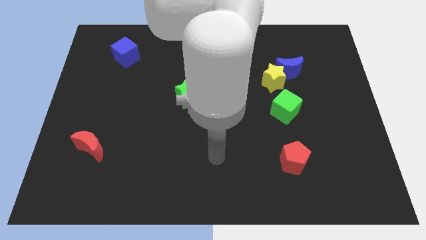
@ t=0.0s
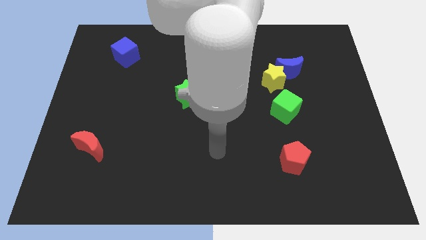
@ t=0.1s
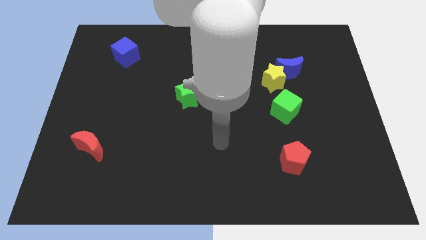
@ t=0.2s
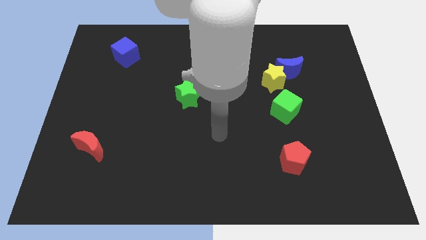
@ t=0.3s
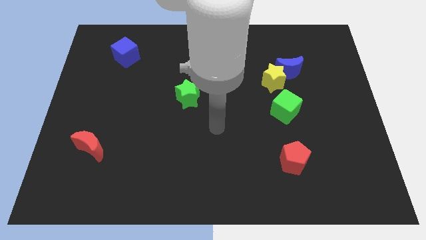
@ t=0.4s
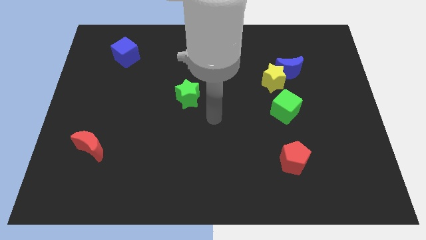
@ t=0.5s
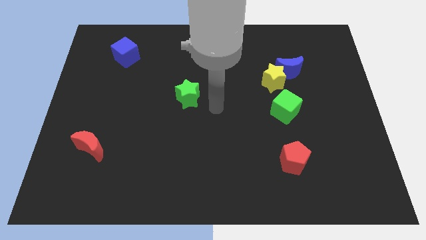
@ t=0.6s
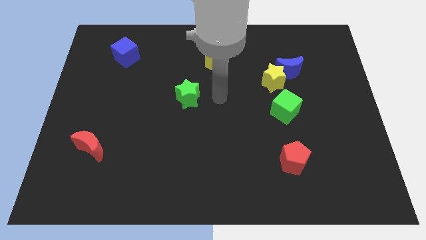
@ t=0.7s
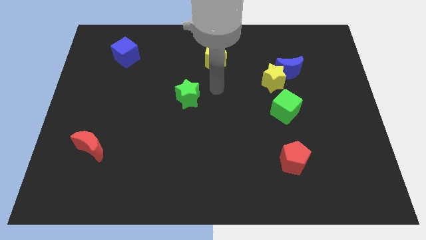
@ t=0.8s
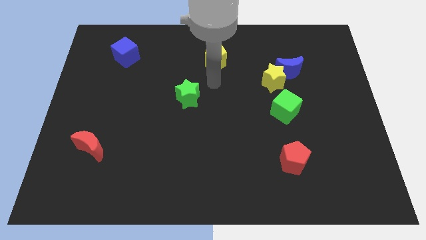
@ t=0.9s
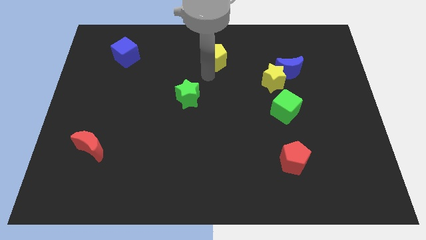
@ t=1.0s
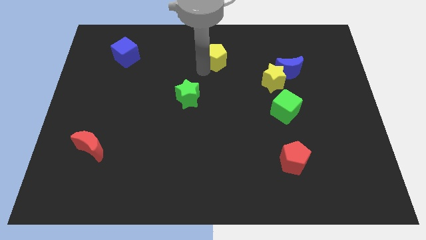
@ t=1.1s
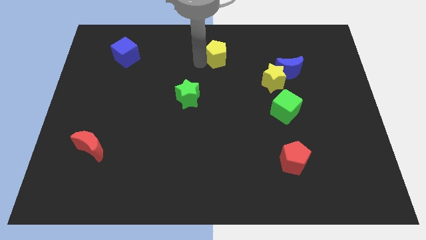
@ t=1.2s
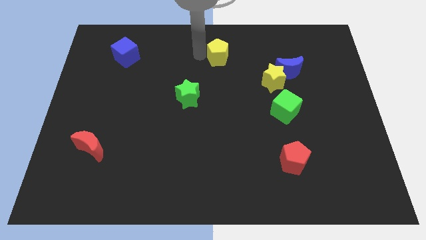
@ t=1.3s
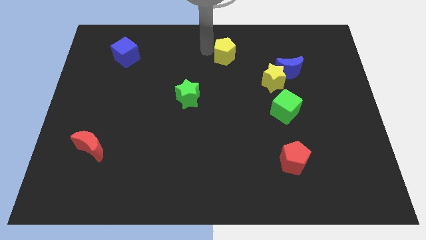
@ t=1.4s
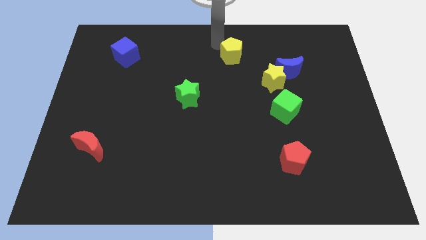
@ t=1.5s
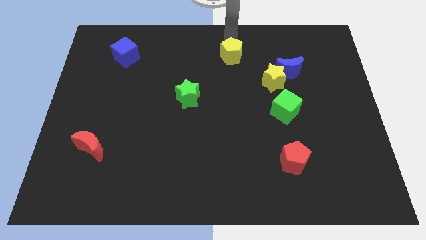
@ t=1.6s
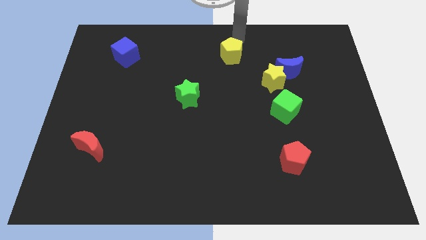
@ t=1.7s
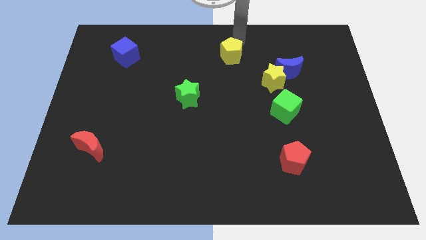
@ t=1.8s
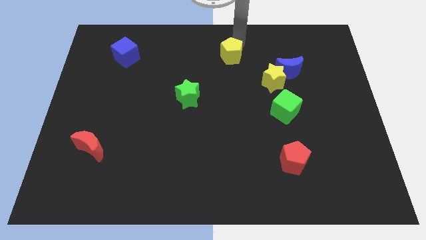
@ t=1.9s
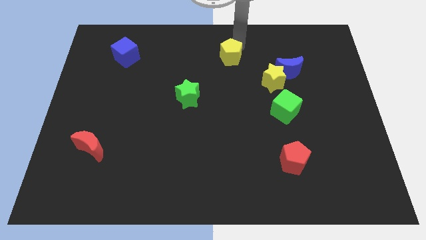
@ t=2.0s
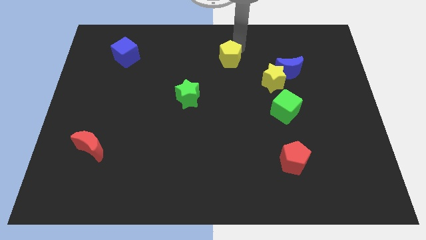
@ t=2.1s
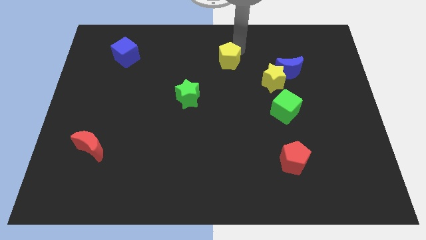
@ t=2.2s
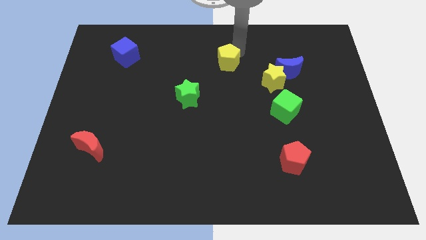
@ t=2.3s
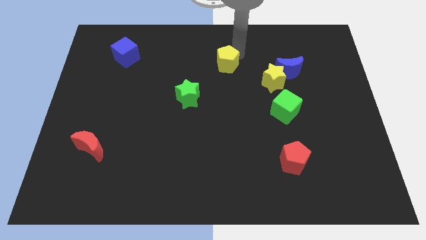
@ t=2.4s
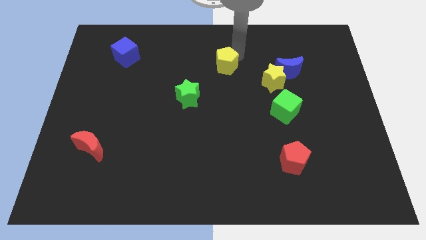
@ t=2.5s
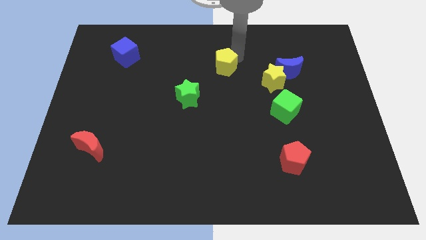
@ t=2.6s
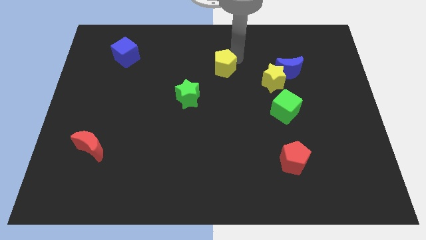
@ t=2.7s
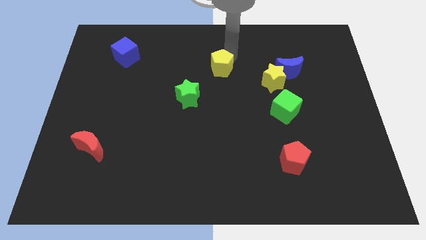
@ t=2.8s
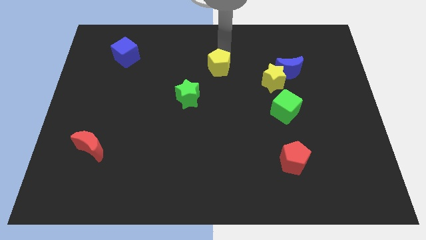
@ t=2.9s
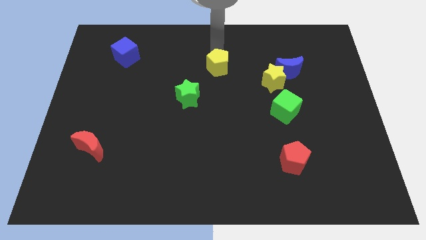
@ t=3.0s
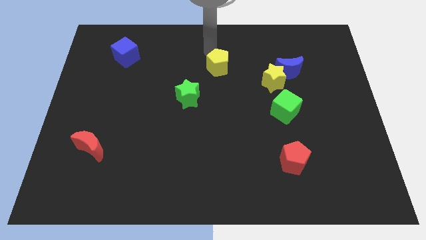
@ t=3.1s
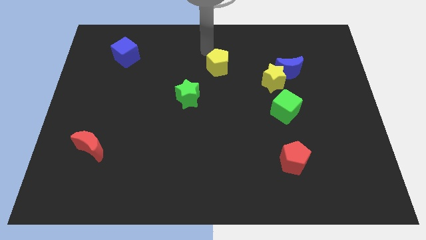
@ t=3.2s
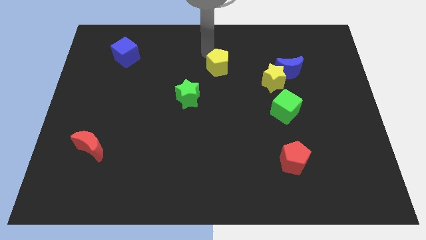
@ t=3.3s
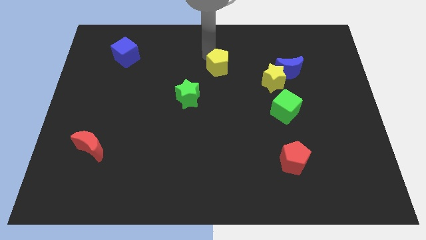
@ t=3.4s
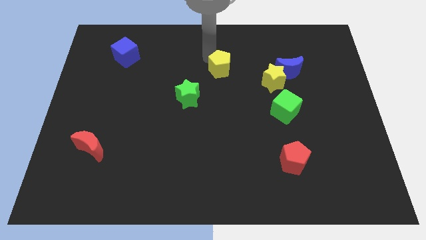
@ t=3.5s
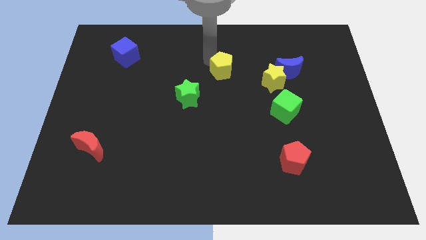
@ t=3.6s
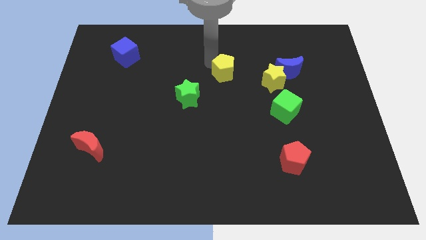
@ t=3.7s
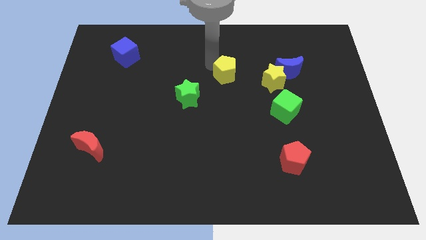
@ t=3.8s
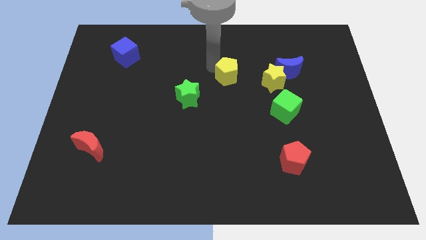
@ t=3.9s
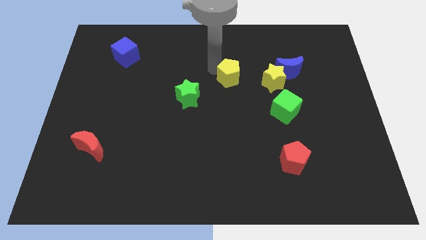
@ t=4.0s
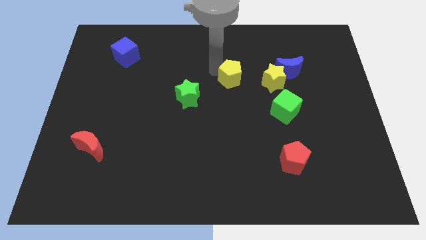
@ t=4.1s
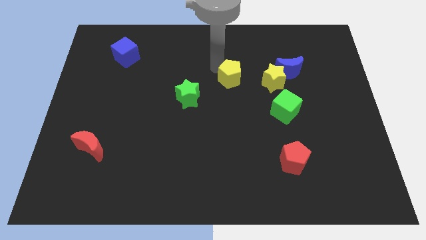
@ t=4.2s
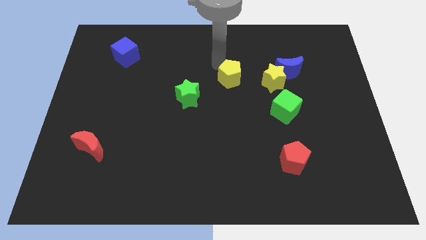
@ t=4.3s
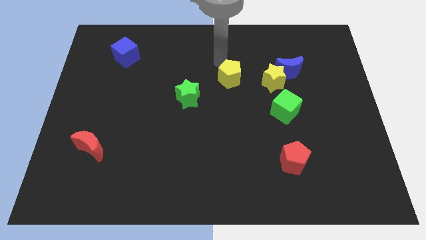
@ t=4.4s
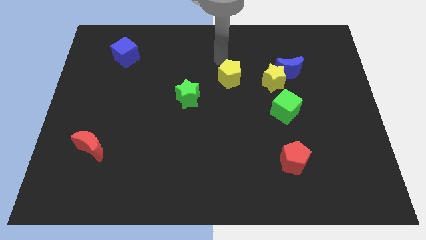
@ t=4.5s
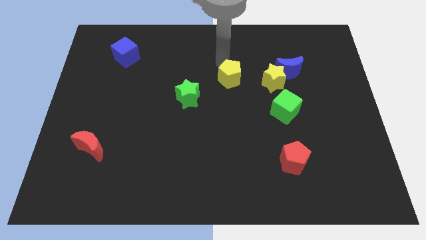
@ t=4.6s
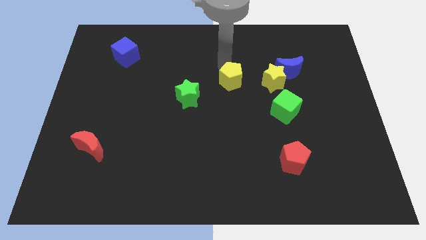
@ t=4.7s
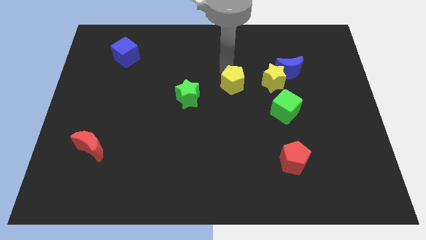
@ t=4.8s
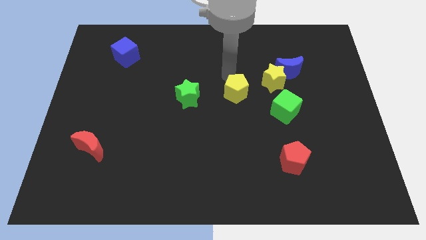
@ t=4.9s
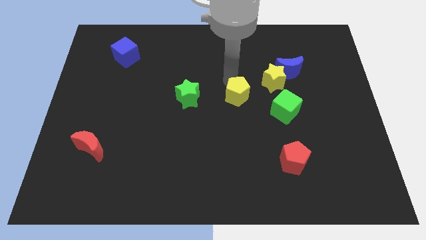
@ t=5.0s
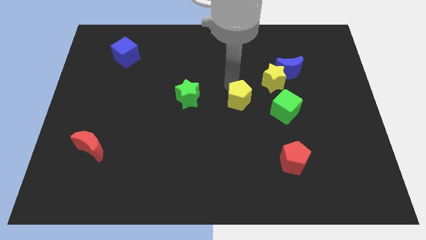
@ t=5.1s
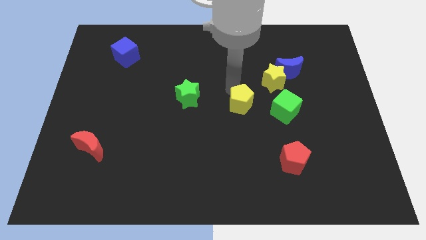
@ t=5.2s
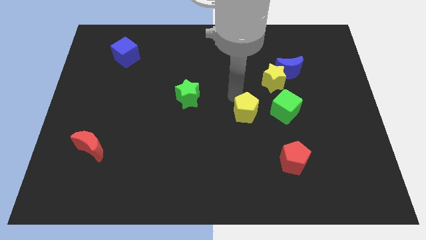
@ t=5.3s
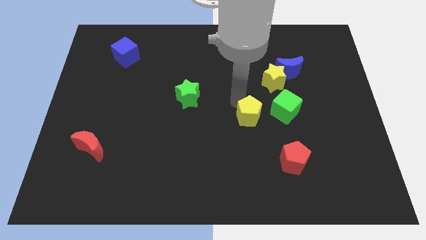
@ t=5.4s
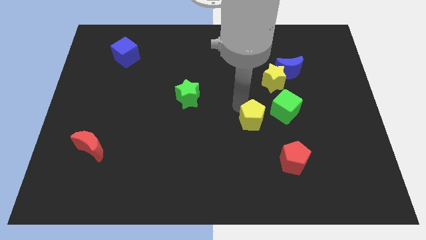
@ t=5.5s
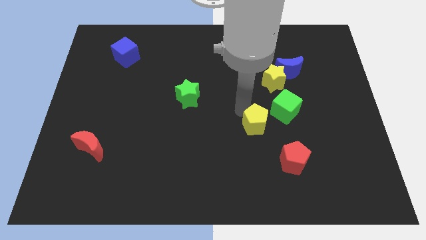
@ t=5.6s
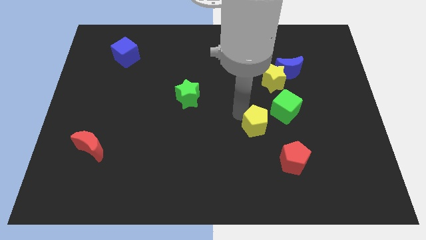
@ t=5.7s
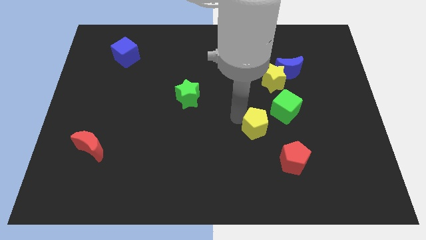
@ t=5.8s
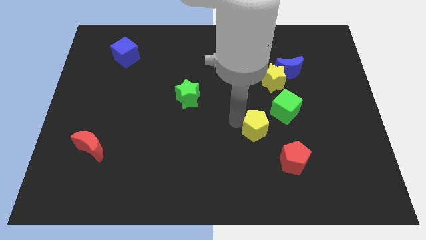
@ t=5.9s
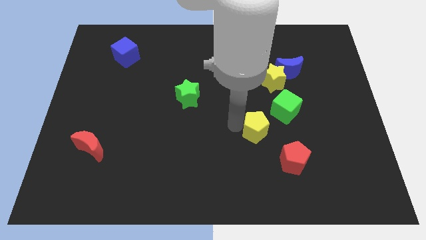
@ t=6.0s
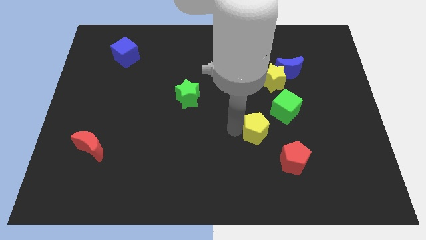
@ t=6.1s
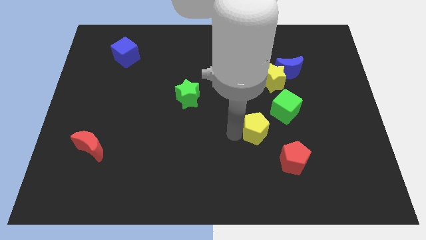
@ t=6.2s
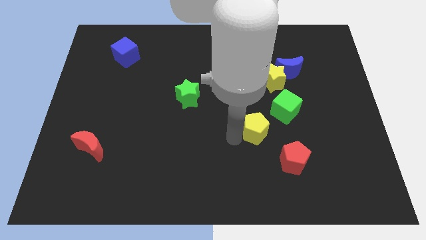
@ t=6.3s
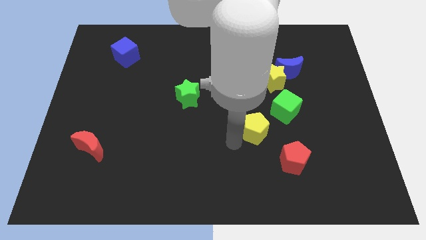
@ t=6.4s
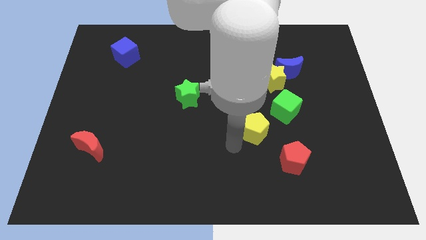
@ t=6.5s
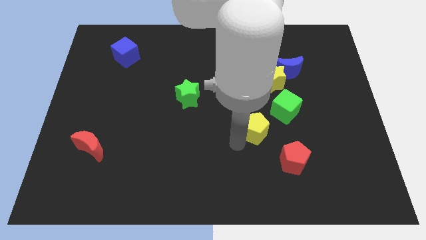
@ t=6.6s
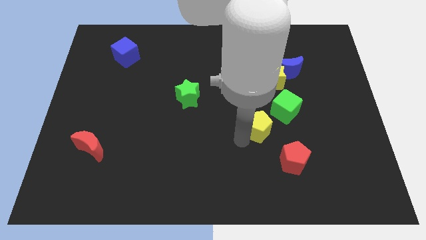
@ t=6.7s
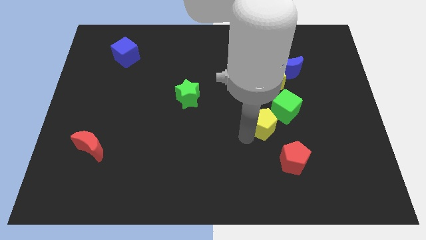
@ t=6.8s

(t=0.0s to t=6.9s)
slide the yellow pentagon down and to the right

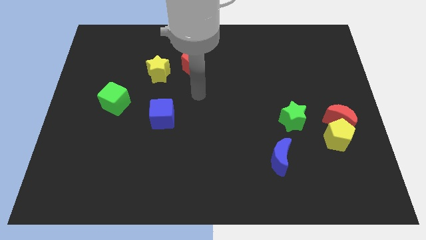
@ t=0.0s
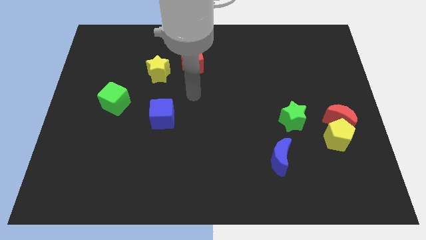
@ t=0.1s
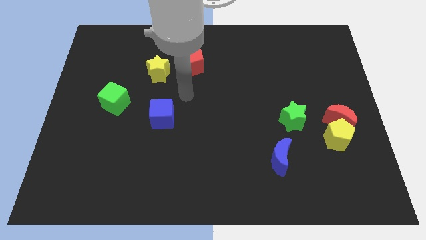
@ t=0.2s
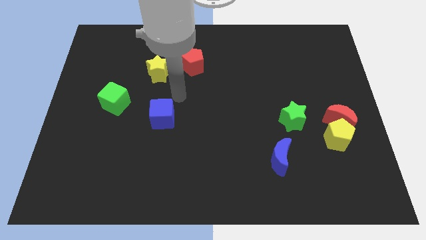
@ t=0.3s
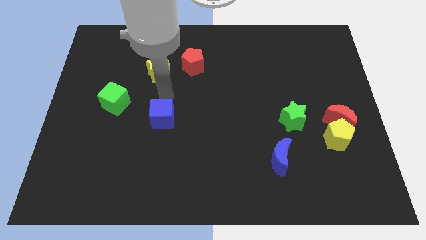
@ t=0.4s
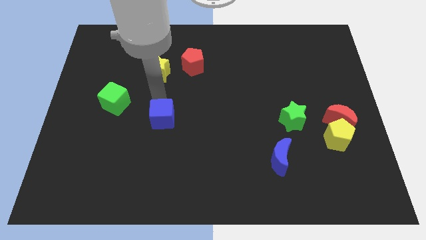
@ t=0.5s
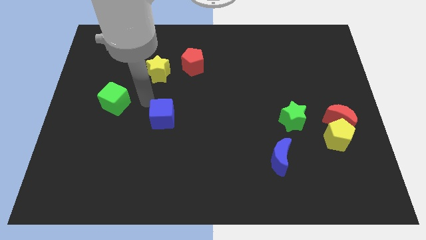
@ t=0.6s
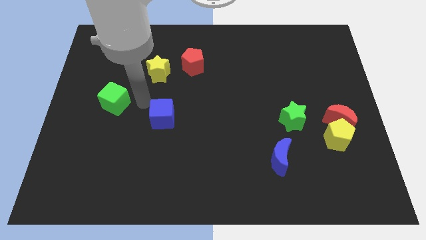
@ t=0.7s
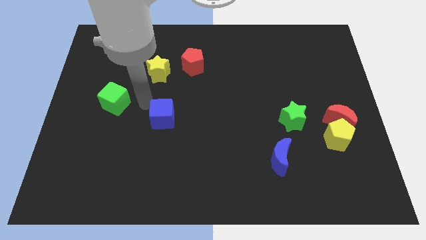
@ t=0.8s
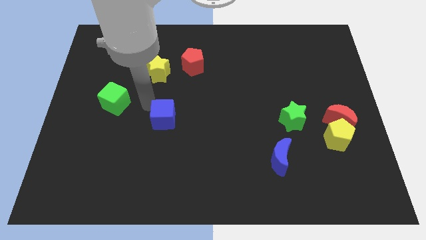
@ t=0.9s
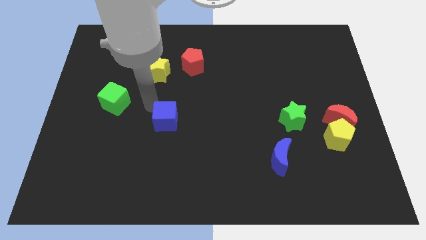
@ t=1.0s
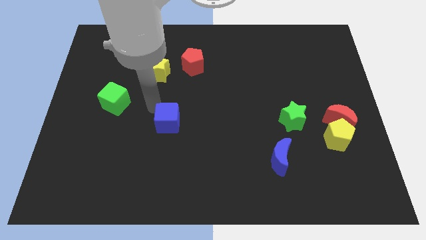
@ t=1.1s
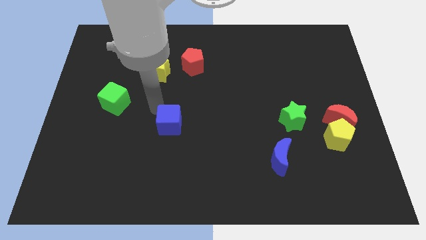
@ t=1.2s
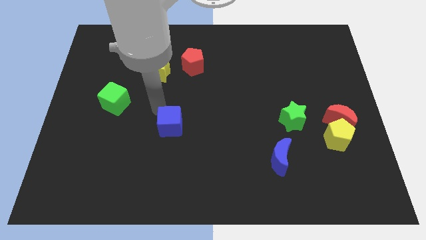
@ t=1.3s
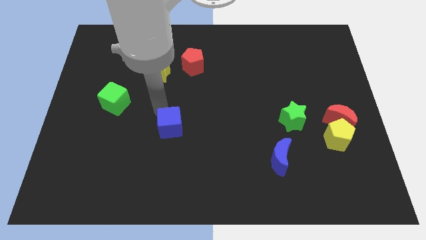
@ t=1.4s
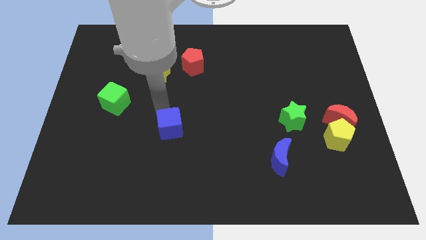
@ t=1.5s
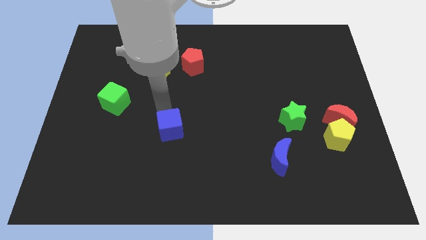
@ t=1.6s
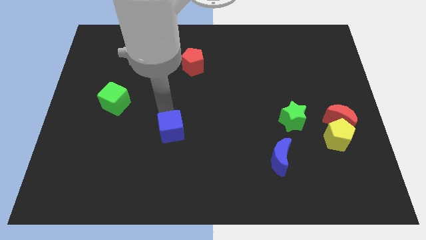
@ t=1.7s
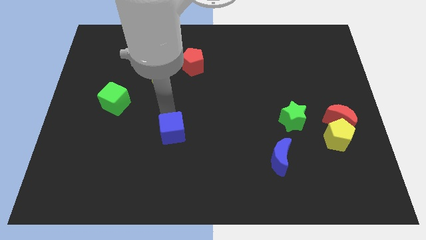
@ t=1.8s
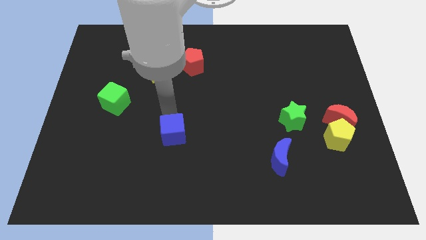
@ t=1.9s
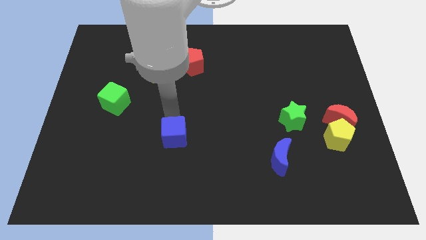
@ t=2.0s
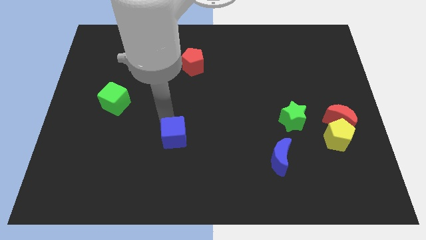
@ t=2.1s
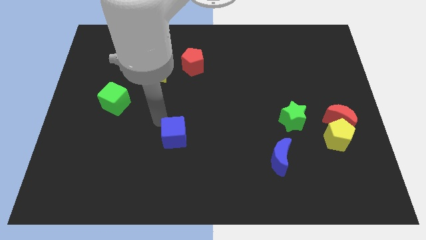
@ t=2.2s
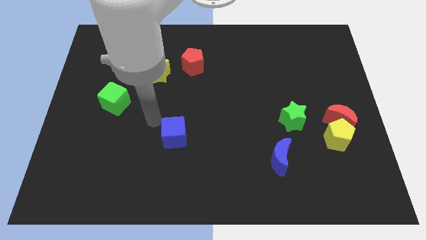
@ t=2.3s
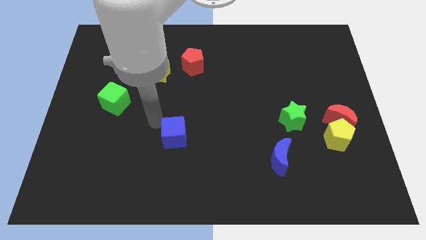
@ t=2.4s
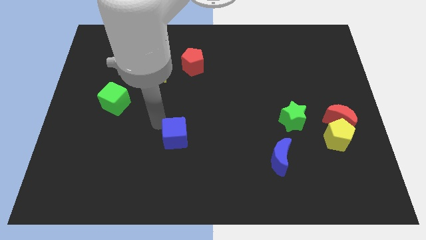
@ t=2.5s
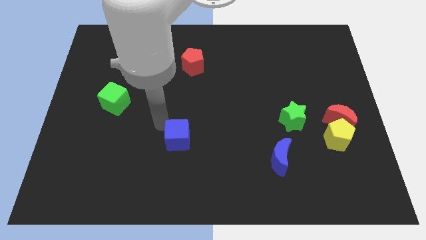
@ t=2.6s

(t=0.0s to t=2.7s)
push the blue cube a little diagonally down and right
